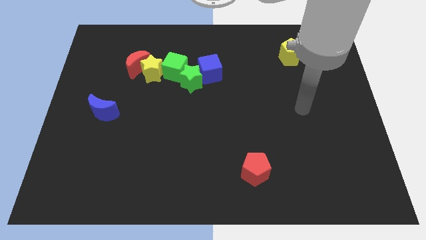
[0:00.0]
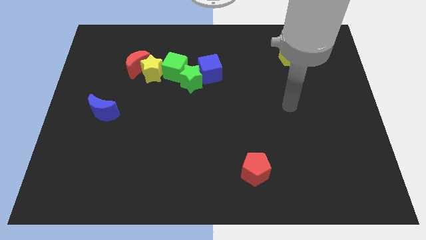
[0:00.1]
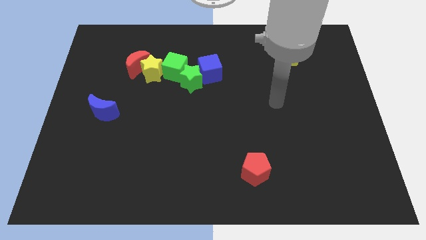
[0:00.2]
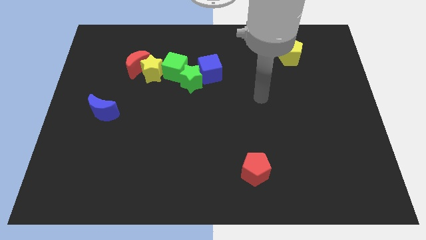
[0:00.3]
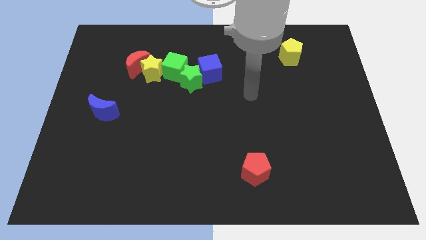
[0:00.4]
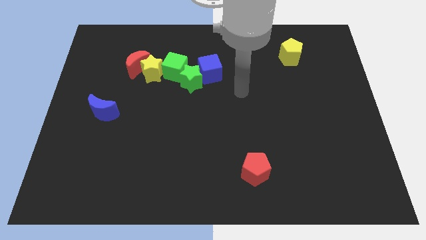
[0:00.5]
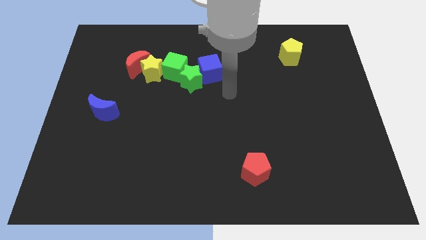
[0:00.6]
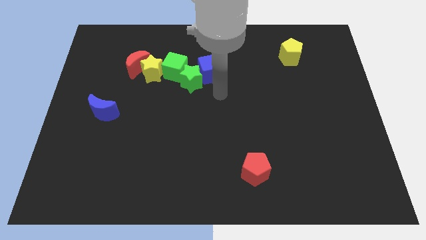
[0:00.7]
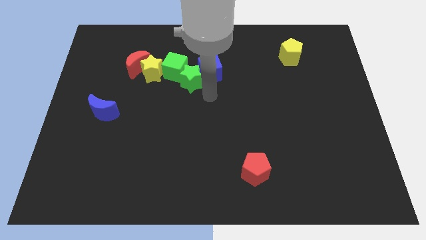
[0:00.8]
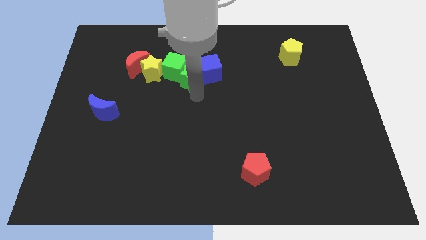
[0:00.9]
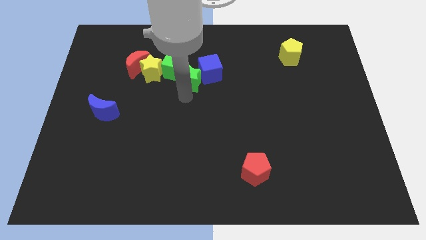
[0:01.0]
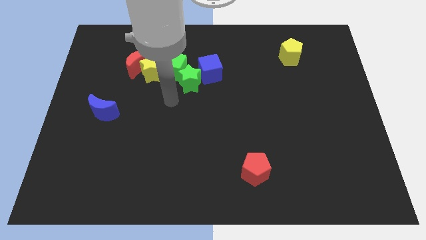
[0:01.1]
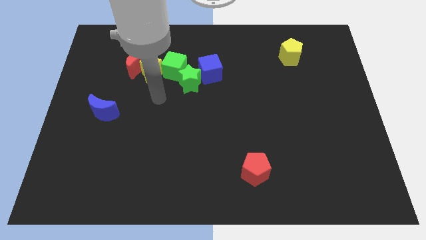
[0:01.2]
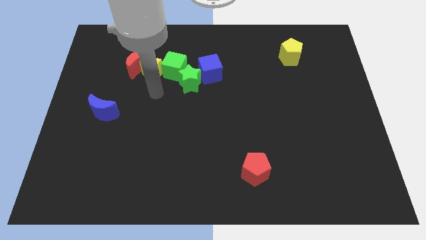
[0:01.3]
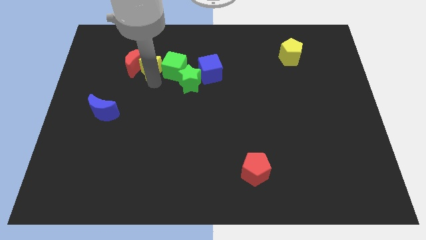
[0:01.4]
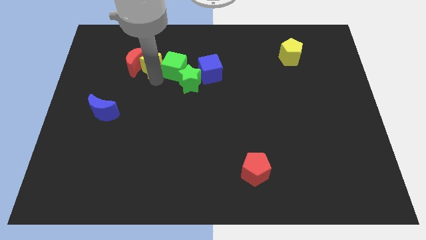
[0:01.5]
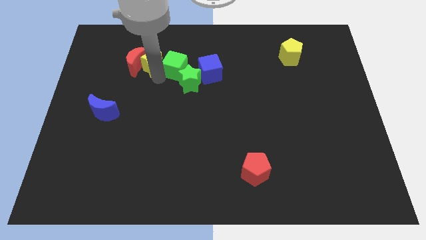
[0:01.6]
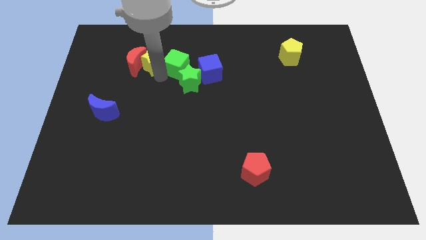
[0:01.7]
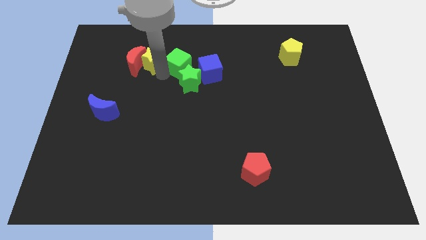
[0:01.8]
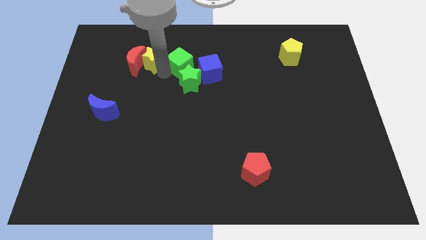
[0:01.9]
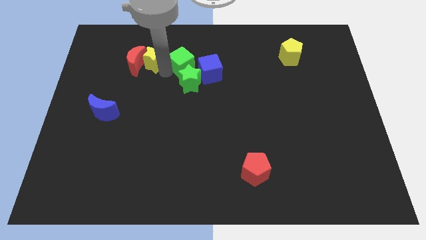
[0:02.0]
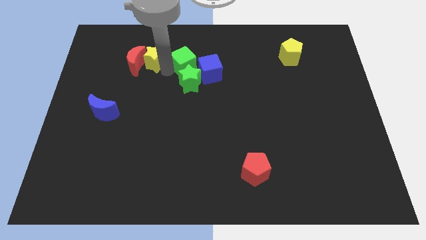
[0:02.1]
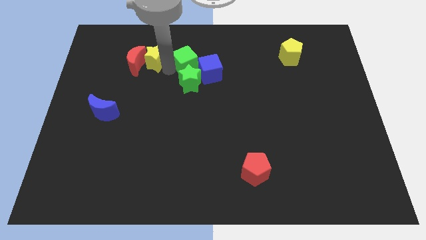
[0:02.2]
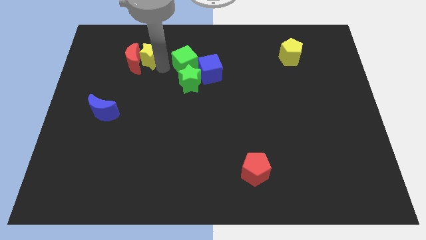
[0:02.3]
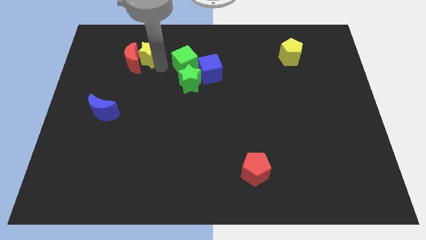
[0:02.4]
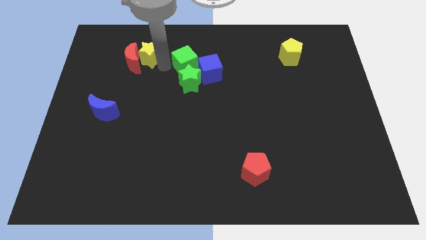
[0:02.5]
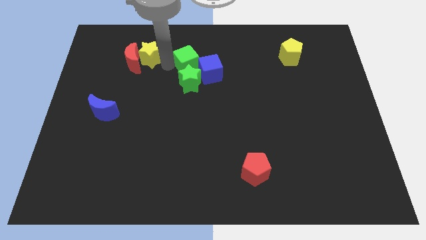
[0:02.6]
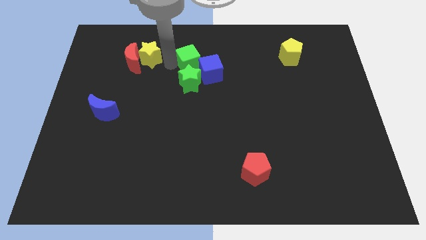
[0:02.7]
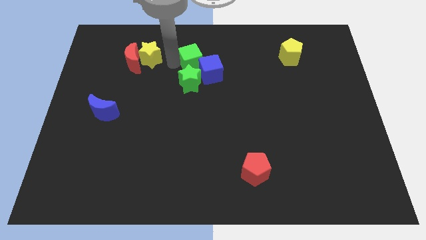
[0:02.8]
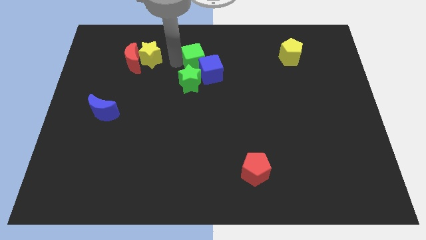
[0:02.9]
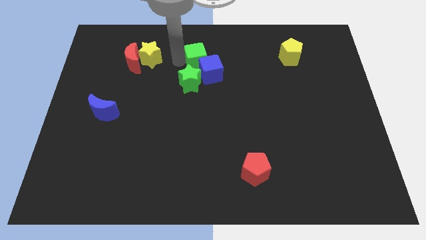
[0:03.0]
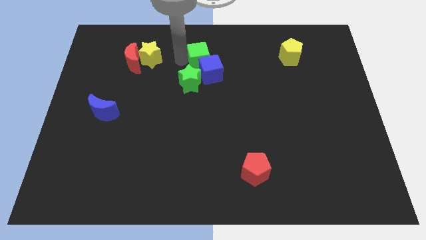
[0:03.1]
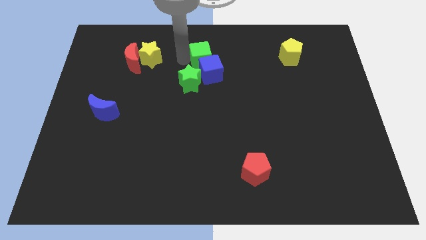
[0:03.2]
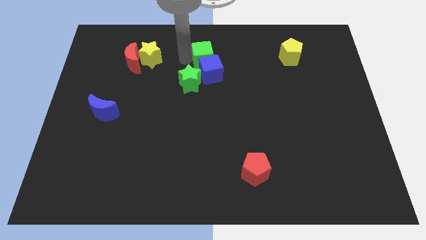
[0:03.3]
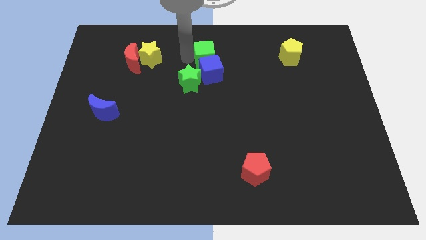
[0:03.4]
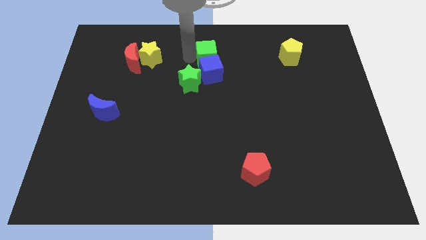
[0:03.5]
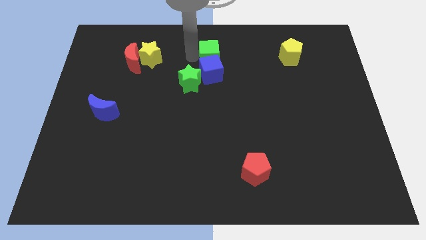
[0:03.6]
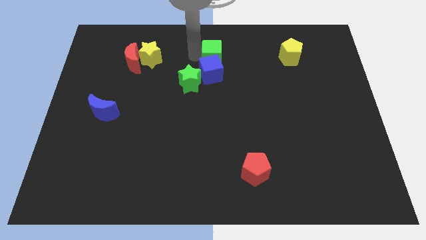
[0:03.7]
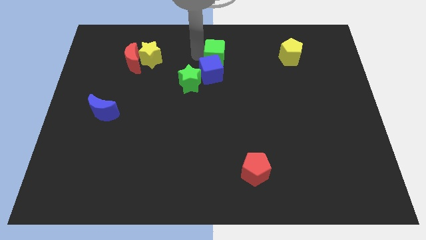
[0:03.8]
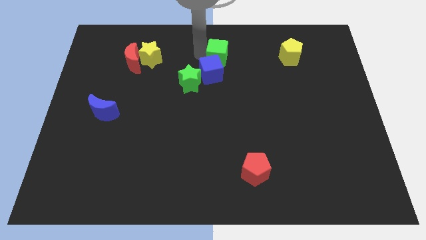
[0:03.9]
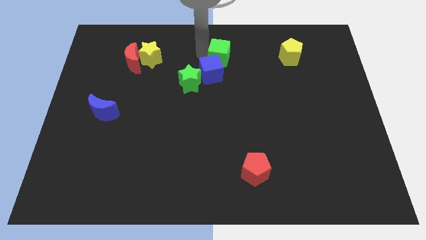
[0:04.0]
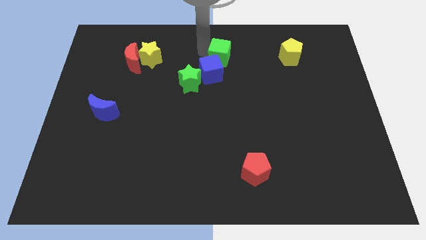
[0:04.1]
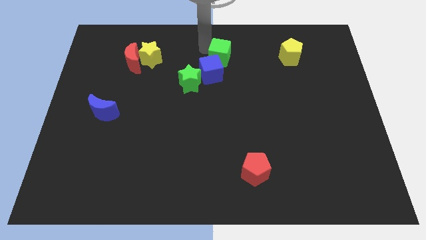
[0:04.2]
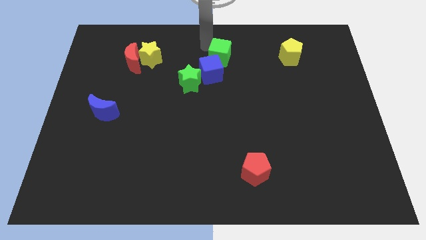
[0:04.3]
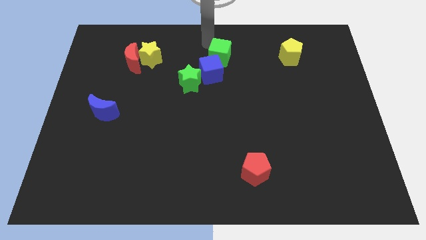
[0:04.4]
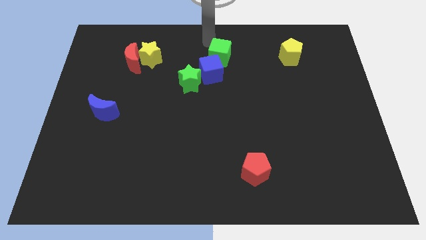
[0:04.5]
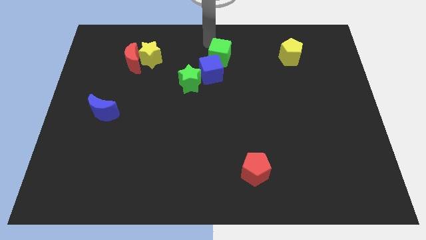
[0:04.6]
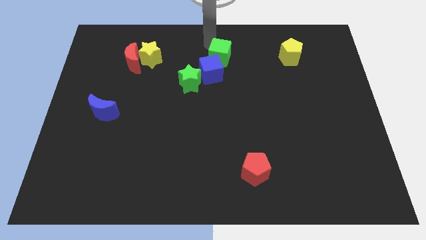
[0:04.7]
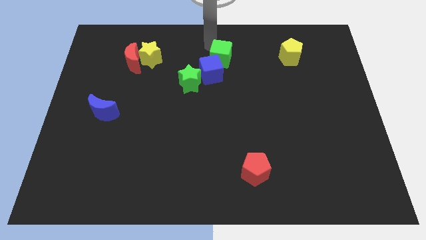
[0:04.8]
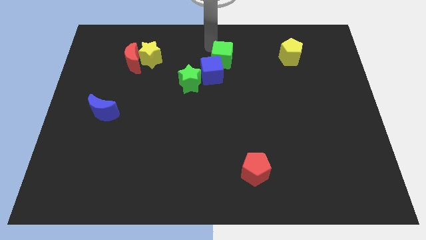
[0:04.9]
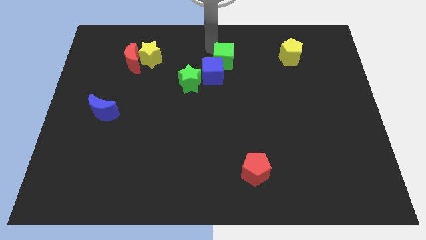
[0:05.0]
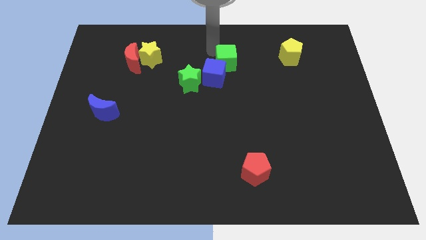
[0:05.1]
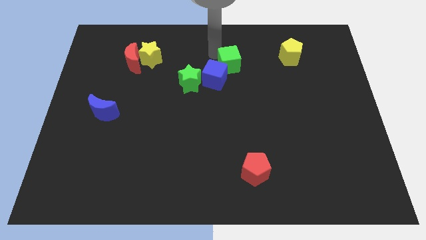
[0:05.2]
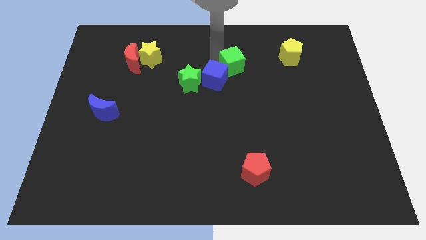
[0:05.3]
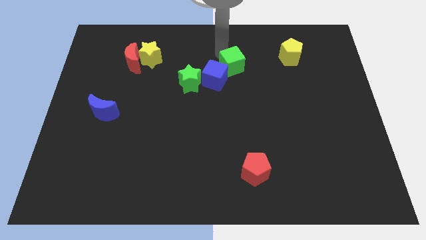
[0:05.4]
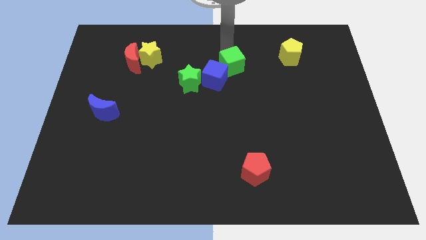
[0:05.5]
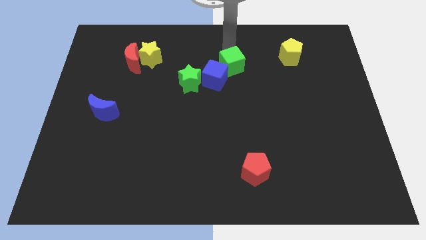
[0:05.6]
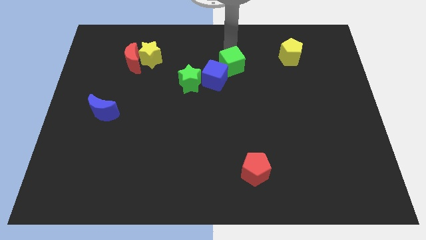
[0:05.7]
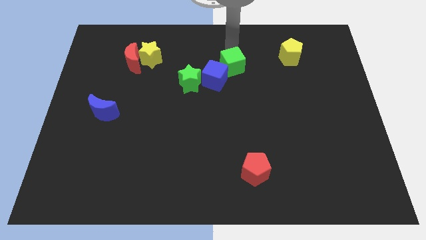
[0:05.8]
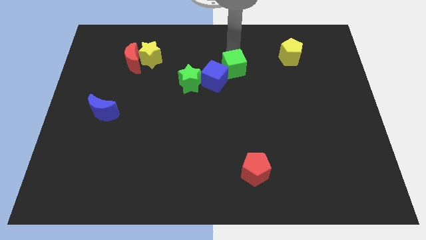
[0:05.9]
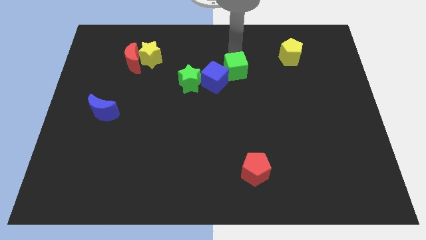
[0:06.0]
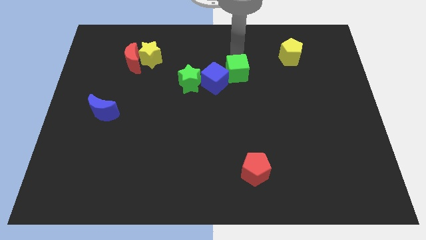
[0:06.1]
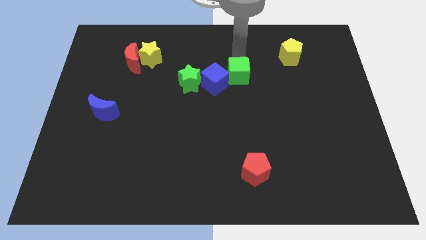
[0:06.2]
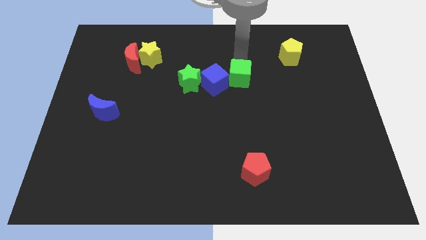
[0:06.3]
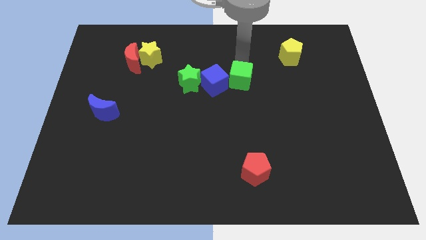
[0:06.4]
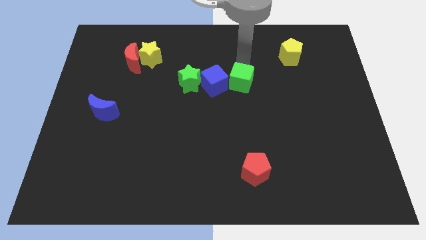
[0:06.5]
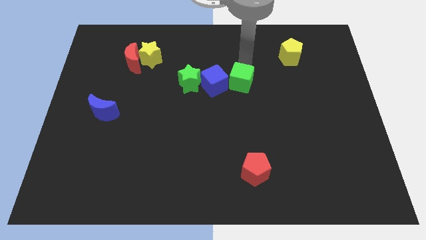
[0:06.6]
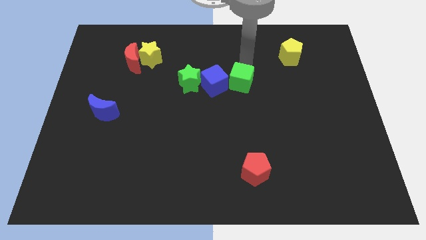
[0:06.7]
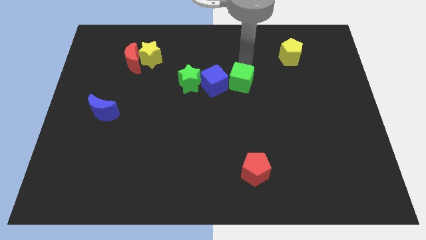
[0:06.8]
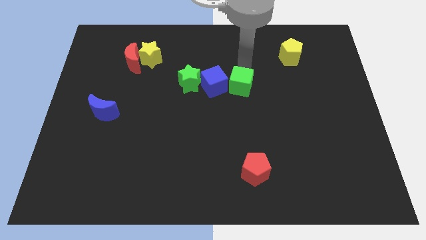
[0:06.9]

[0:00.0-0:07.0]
put the green cube to the bottom right of the blue cube

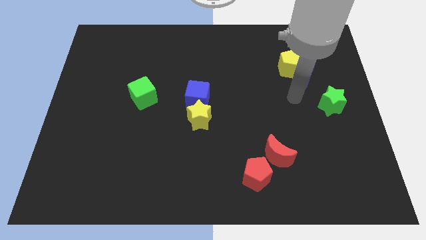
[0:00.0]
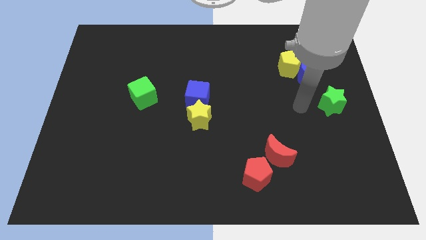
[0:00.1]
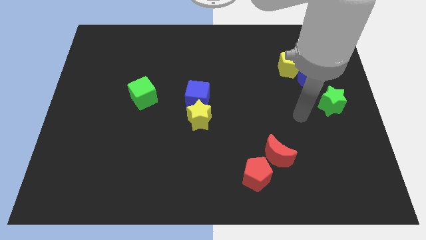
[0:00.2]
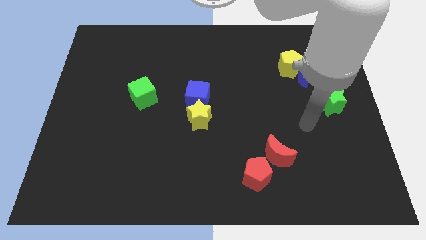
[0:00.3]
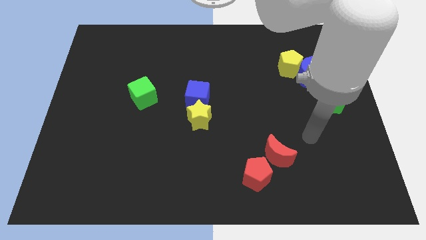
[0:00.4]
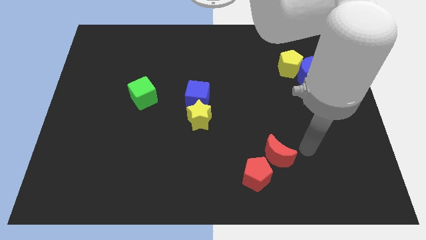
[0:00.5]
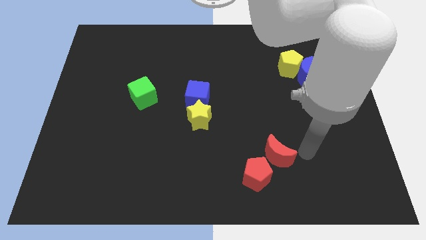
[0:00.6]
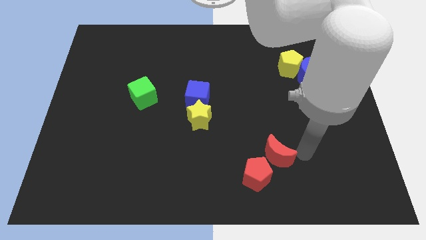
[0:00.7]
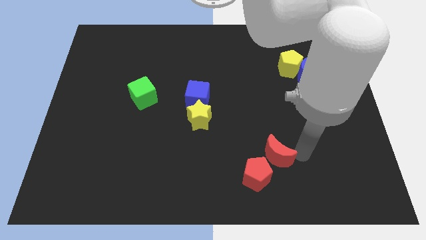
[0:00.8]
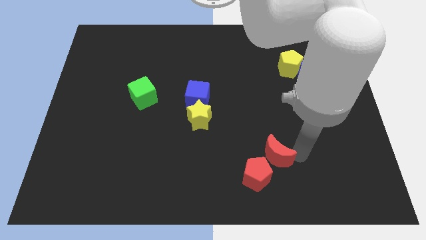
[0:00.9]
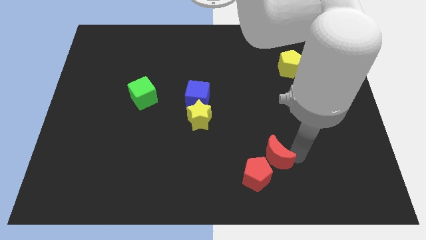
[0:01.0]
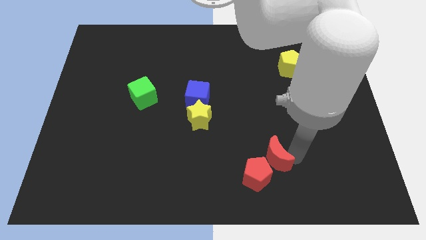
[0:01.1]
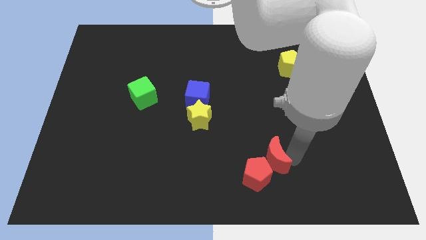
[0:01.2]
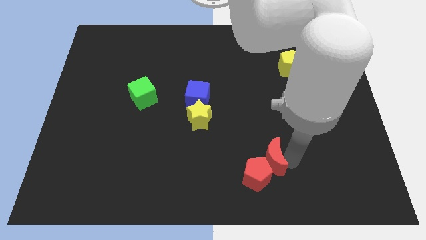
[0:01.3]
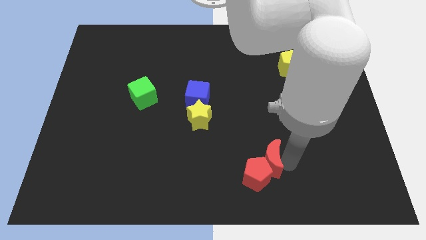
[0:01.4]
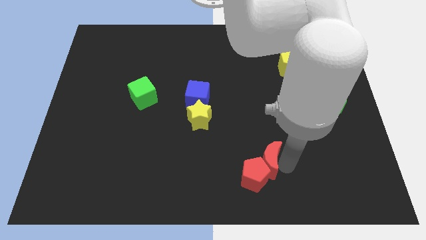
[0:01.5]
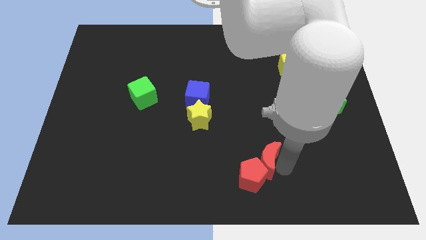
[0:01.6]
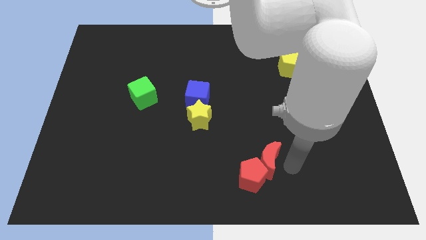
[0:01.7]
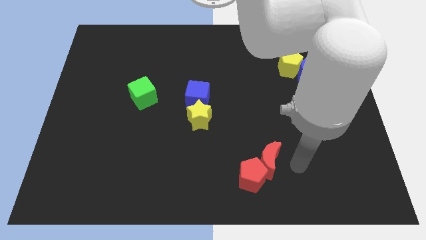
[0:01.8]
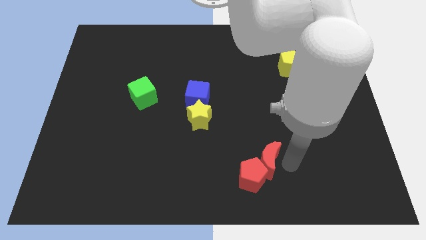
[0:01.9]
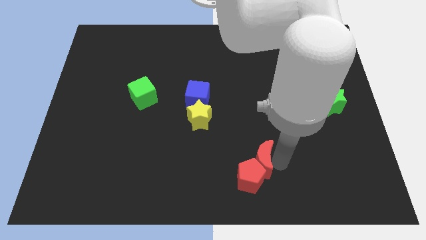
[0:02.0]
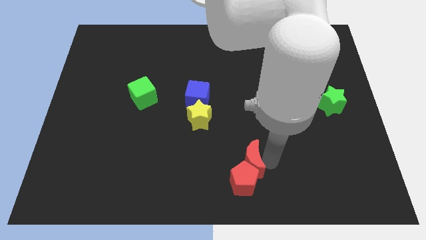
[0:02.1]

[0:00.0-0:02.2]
move the red moon diagonally up and to the left of the red pentagon
